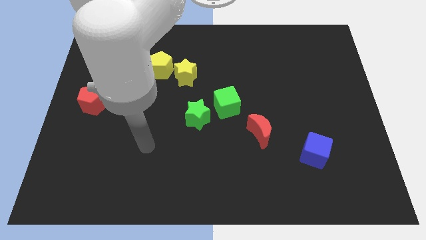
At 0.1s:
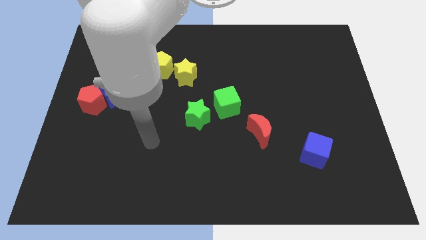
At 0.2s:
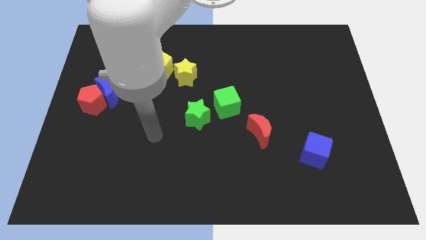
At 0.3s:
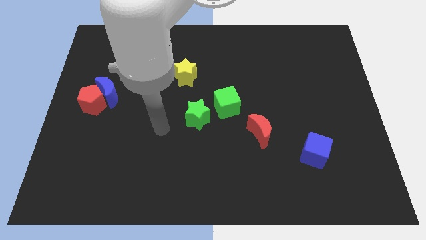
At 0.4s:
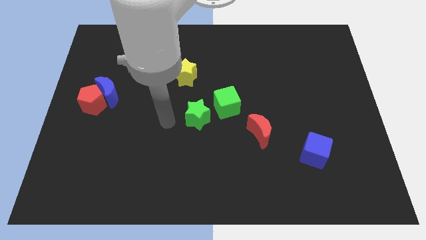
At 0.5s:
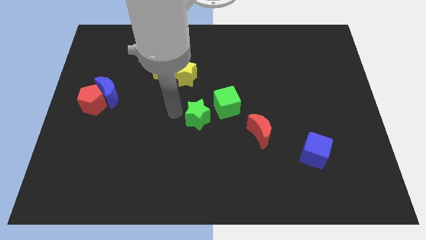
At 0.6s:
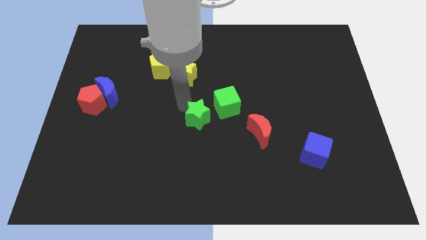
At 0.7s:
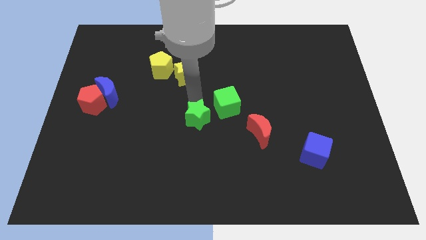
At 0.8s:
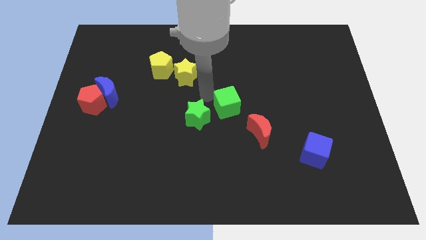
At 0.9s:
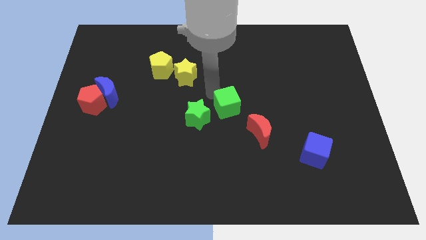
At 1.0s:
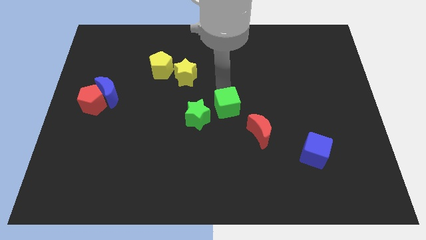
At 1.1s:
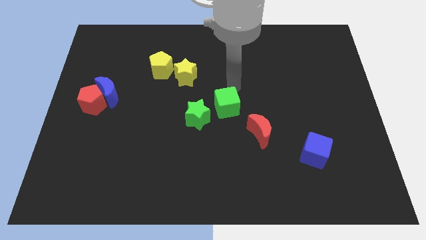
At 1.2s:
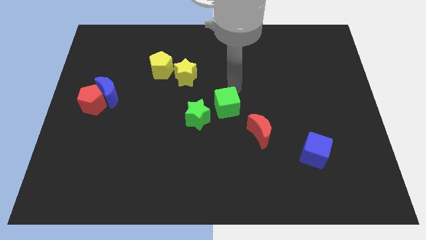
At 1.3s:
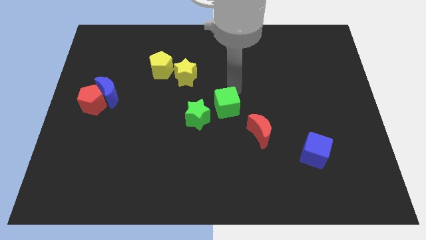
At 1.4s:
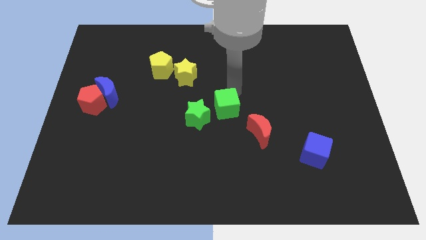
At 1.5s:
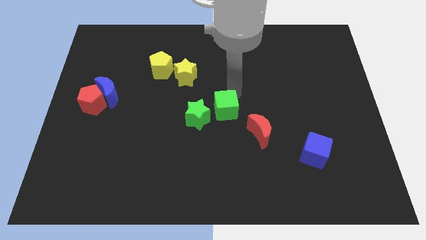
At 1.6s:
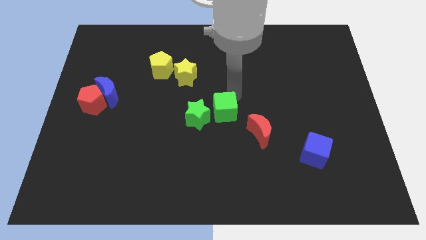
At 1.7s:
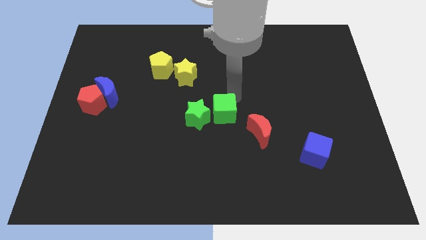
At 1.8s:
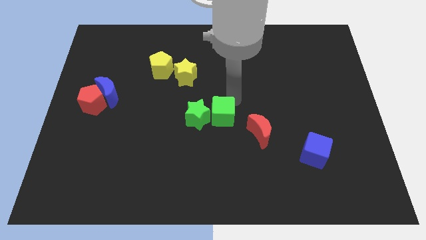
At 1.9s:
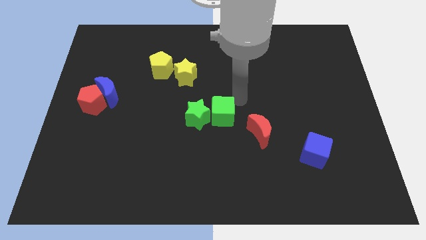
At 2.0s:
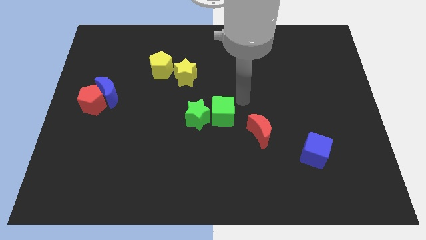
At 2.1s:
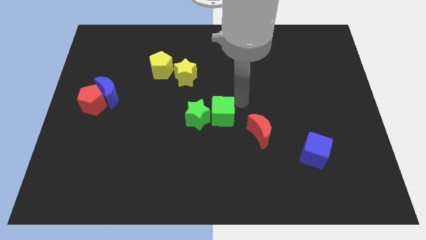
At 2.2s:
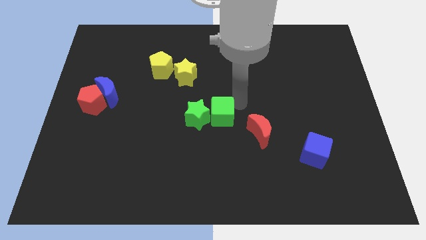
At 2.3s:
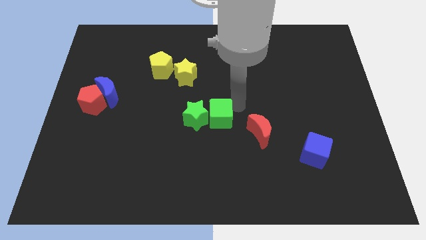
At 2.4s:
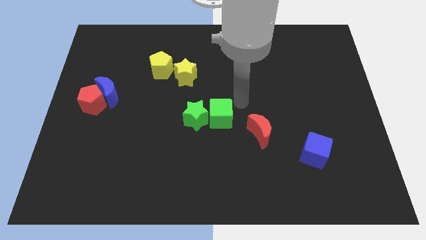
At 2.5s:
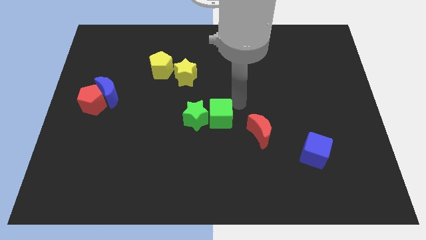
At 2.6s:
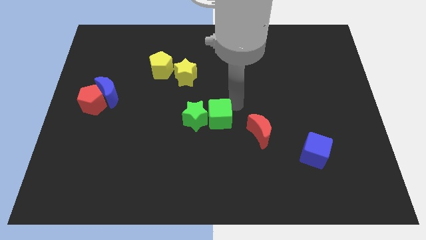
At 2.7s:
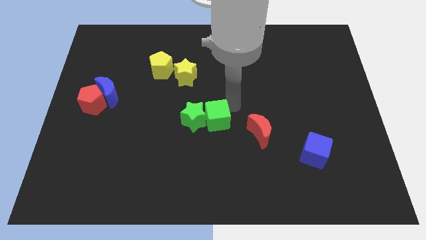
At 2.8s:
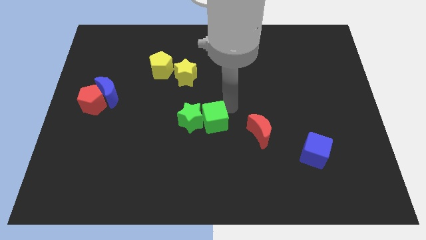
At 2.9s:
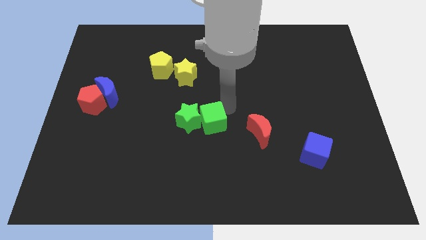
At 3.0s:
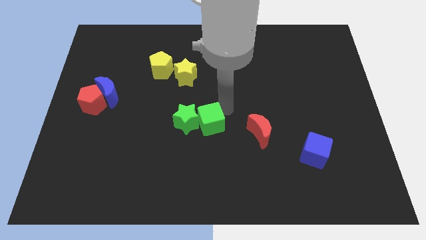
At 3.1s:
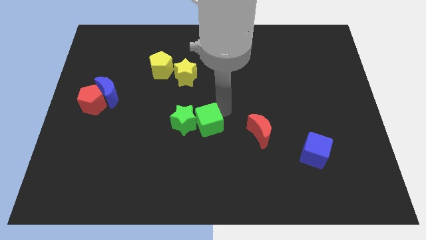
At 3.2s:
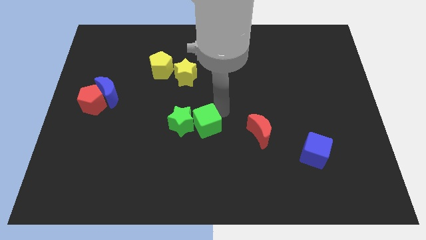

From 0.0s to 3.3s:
push the green cube downwards and to the left a little

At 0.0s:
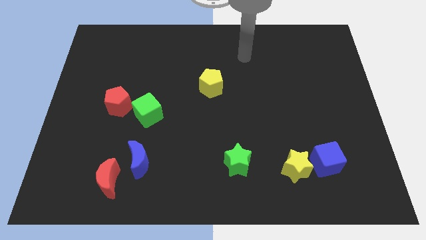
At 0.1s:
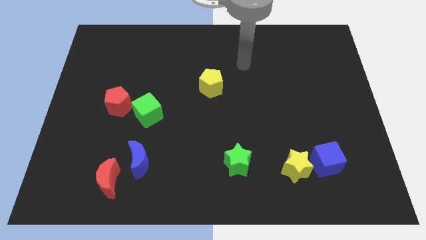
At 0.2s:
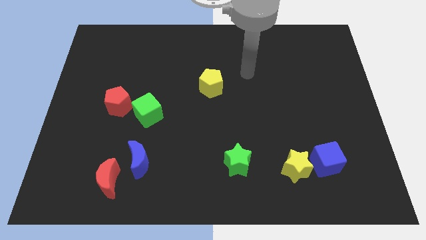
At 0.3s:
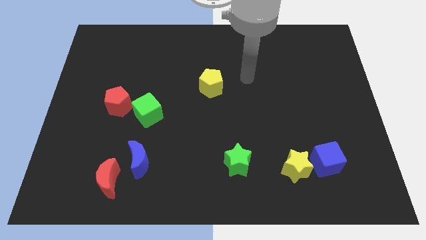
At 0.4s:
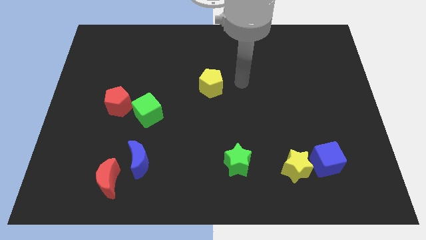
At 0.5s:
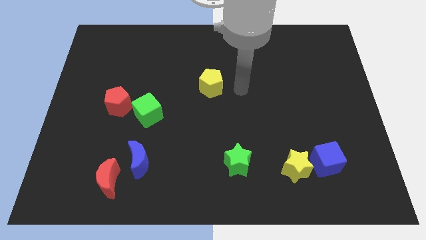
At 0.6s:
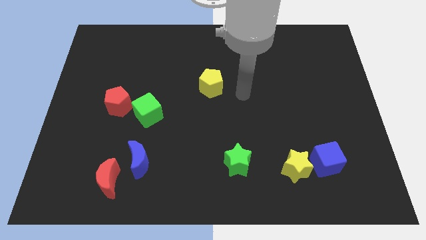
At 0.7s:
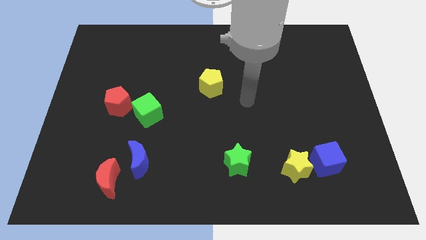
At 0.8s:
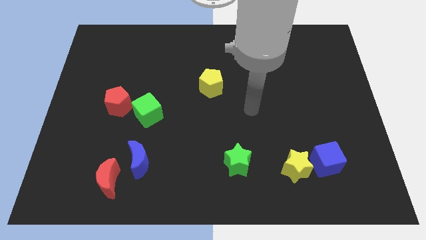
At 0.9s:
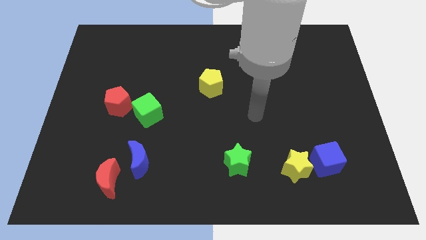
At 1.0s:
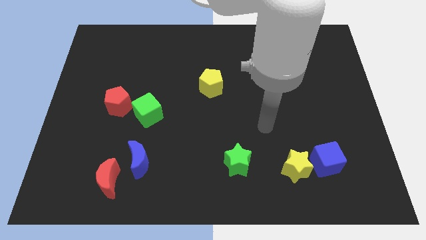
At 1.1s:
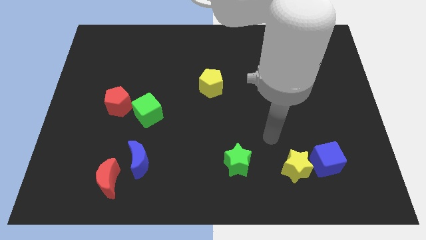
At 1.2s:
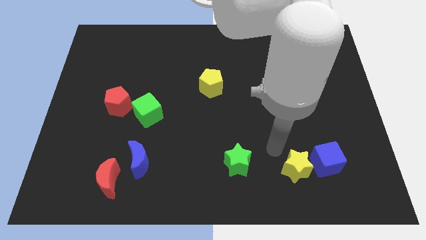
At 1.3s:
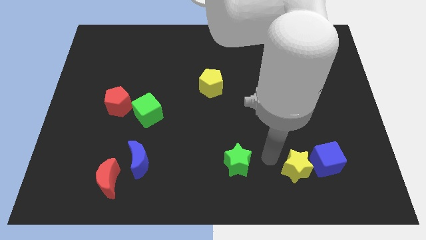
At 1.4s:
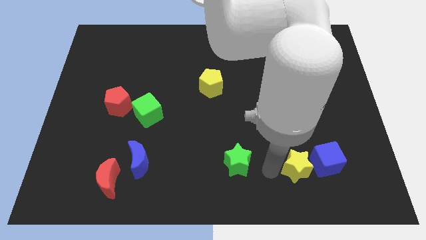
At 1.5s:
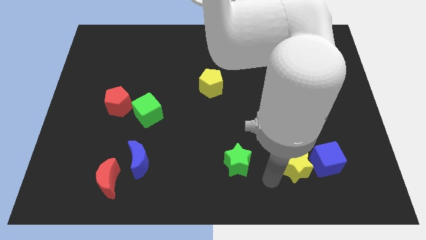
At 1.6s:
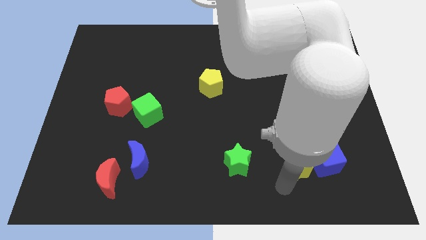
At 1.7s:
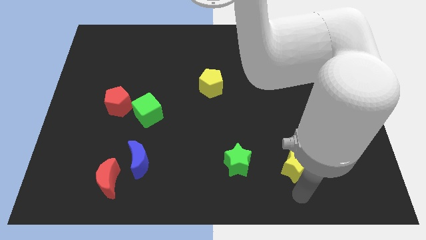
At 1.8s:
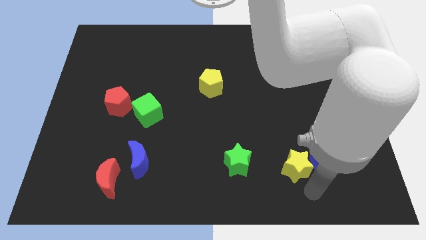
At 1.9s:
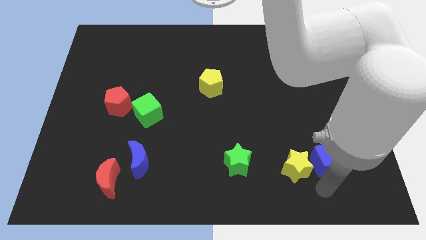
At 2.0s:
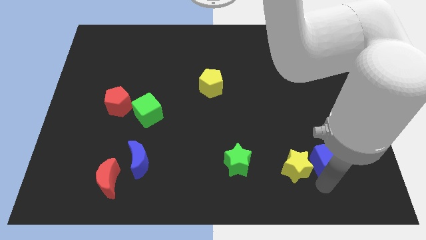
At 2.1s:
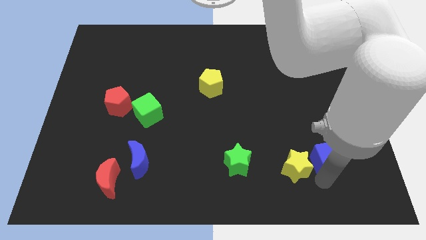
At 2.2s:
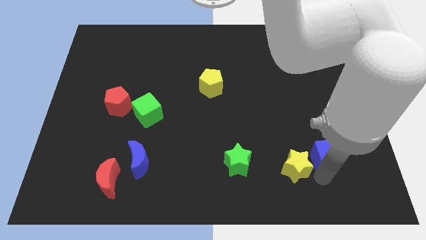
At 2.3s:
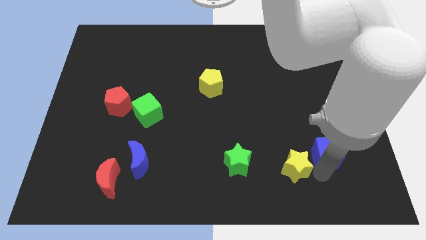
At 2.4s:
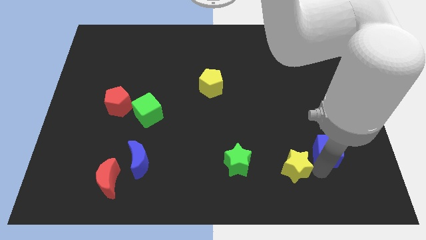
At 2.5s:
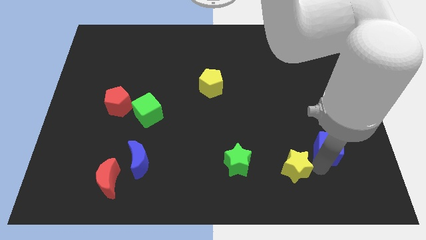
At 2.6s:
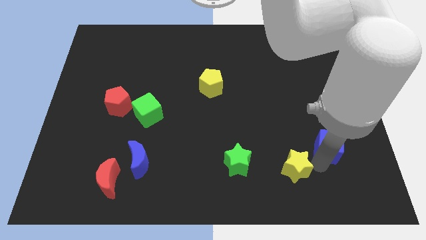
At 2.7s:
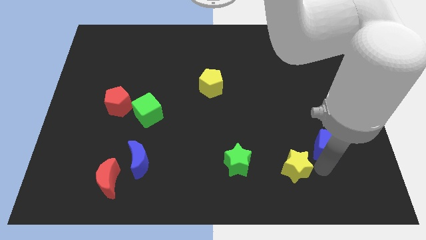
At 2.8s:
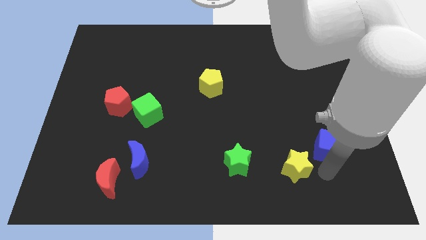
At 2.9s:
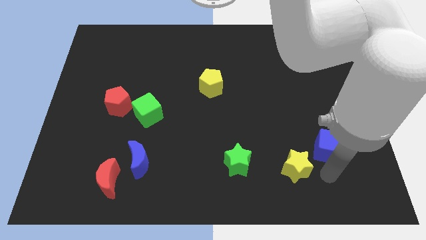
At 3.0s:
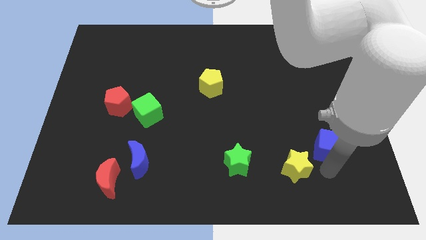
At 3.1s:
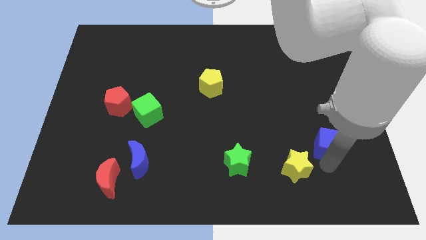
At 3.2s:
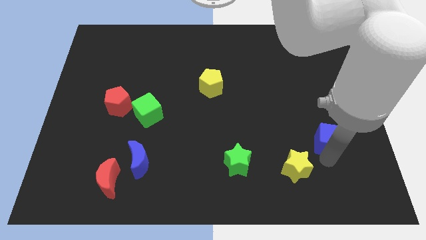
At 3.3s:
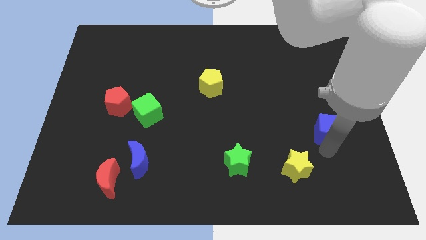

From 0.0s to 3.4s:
slide the blue cube a little bit up

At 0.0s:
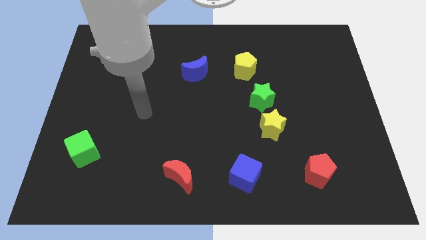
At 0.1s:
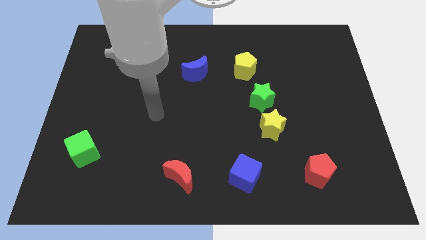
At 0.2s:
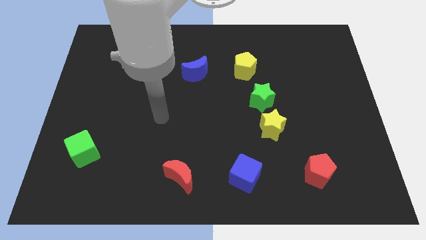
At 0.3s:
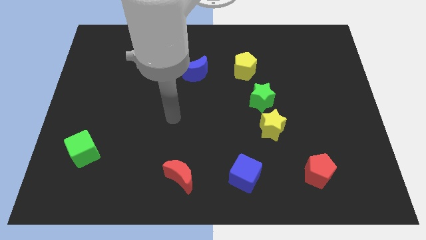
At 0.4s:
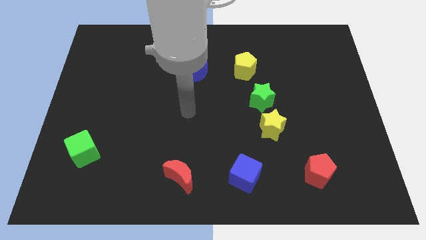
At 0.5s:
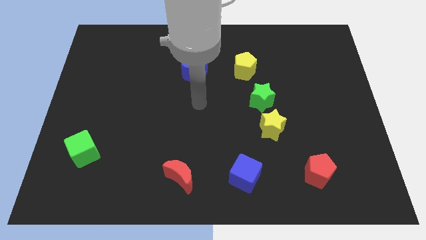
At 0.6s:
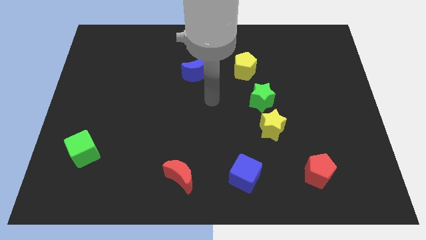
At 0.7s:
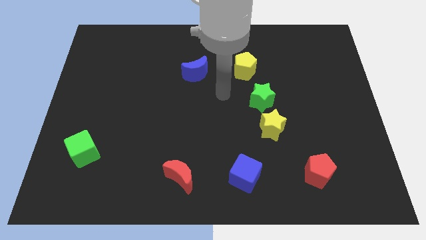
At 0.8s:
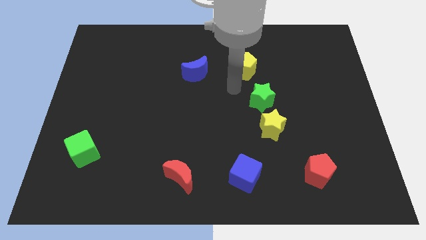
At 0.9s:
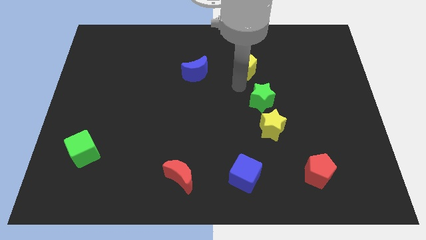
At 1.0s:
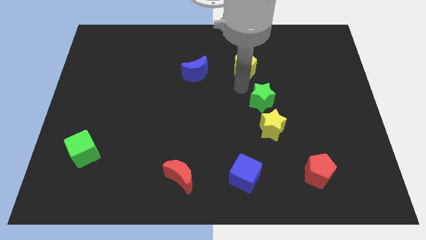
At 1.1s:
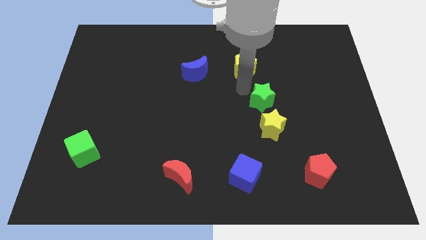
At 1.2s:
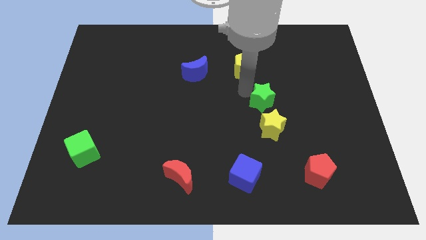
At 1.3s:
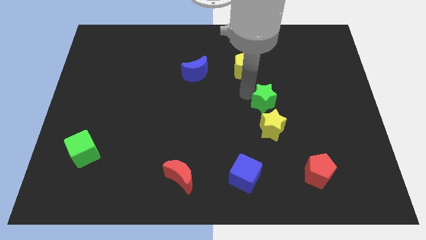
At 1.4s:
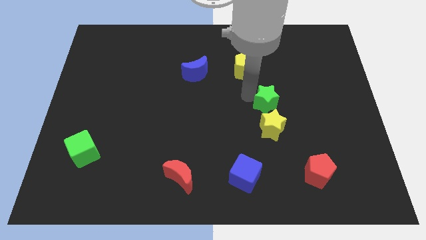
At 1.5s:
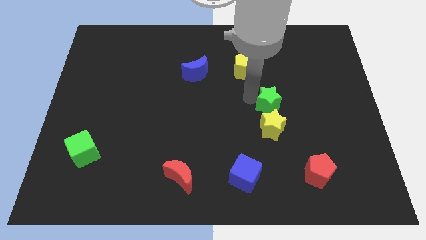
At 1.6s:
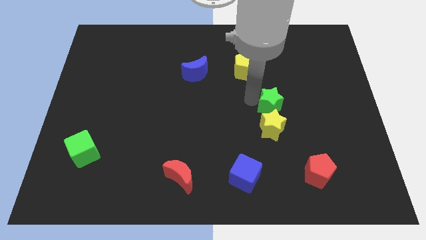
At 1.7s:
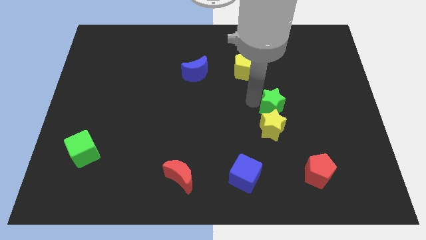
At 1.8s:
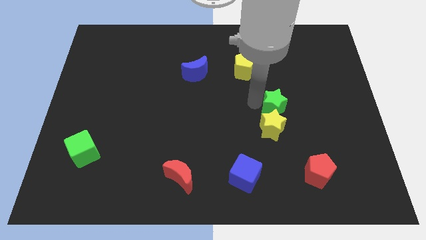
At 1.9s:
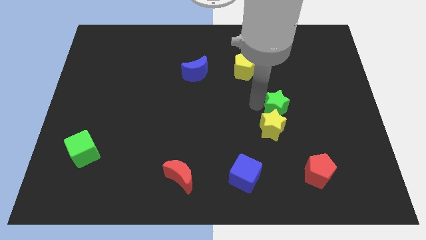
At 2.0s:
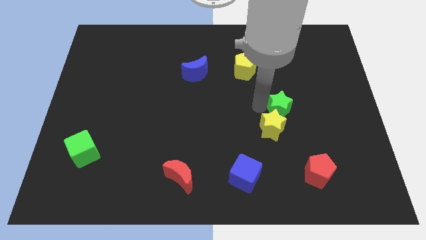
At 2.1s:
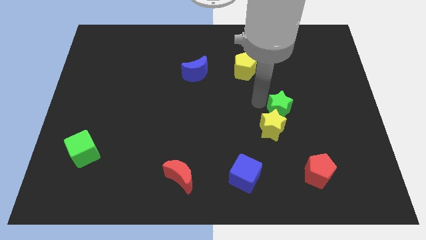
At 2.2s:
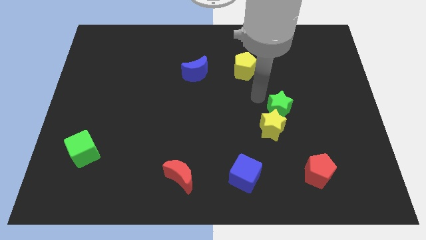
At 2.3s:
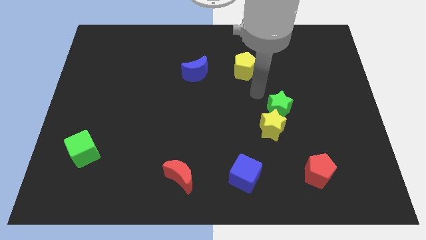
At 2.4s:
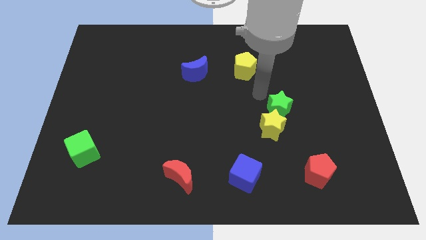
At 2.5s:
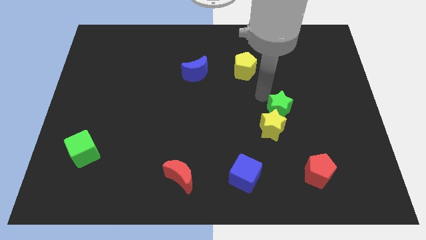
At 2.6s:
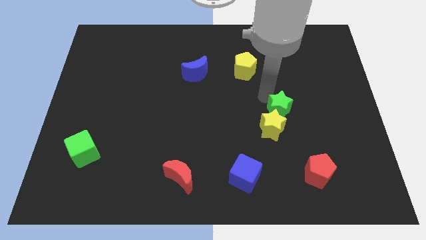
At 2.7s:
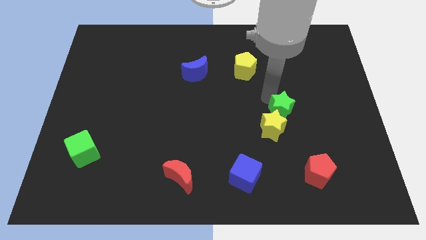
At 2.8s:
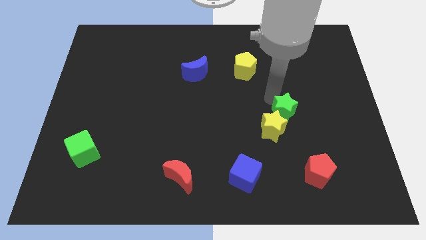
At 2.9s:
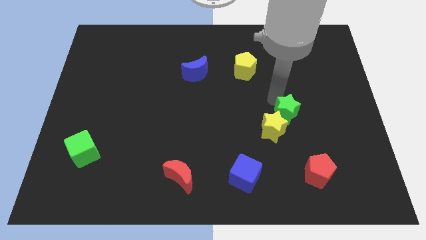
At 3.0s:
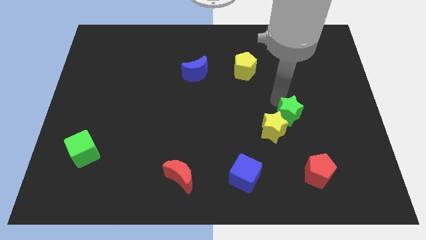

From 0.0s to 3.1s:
slightly slide the green star down and right diagonally
